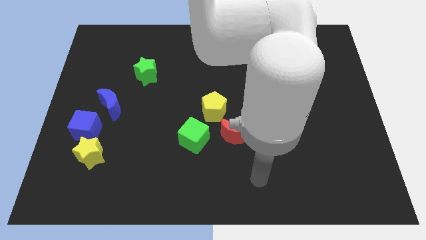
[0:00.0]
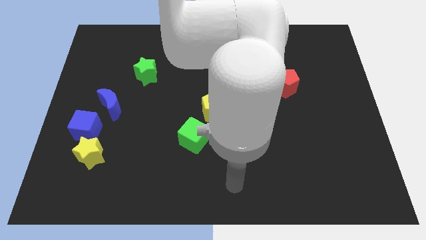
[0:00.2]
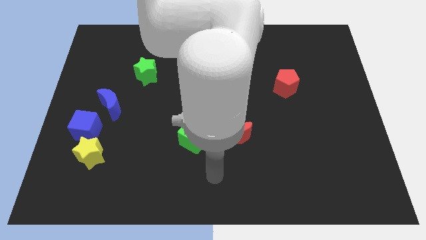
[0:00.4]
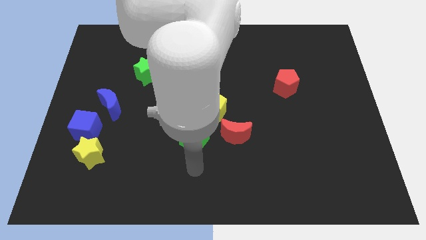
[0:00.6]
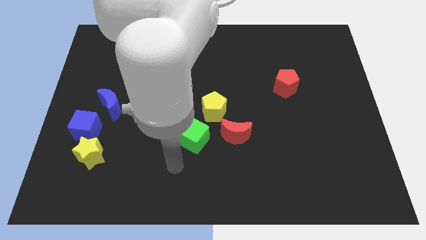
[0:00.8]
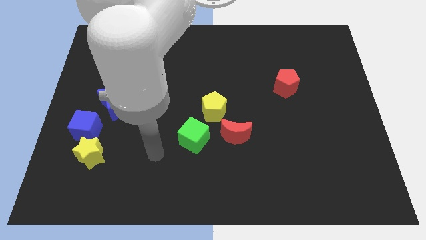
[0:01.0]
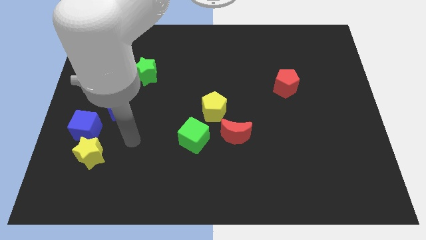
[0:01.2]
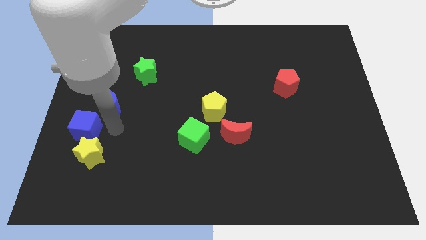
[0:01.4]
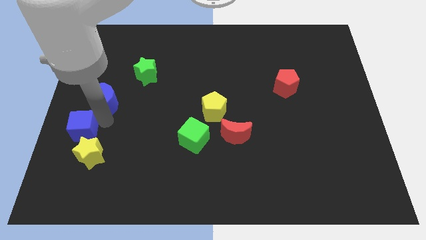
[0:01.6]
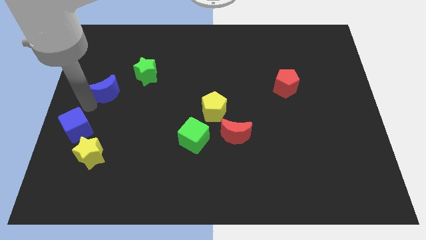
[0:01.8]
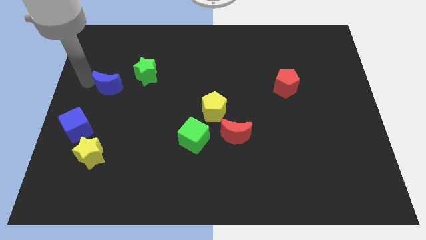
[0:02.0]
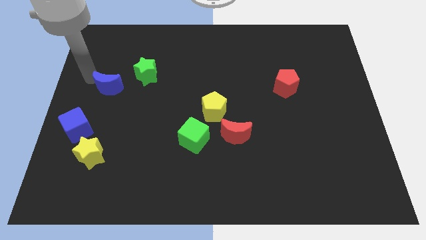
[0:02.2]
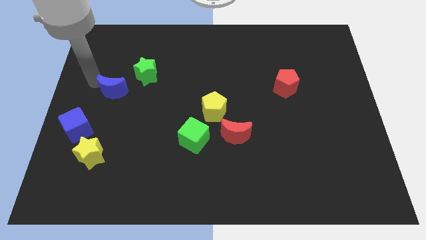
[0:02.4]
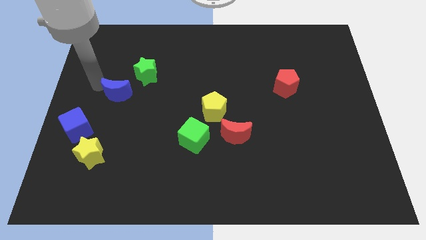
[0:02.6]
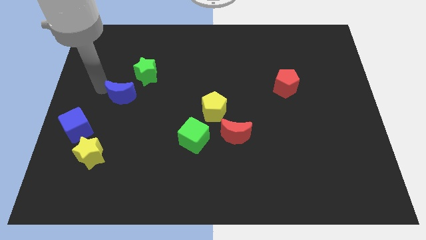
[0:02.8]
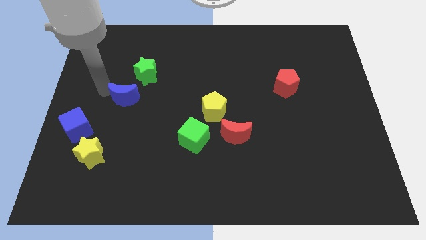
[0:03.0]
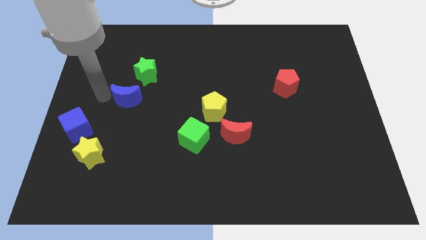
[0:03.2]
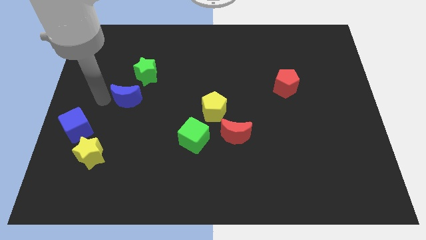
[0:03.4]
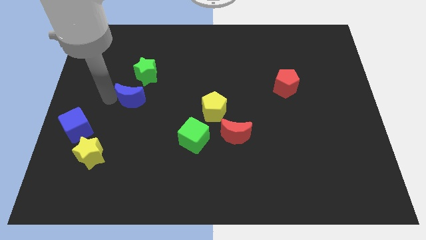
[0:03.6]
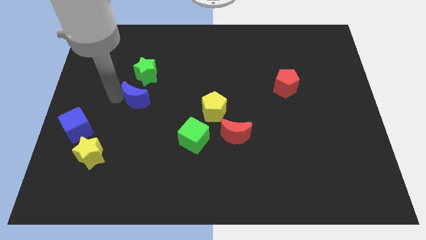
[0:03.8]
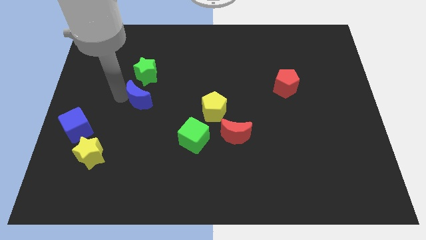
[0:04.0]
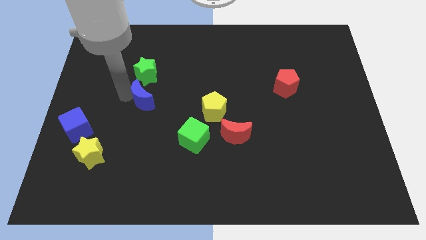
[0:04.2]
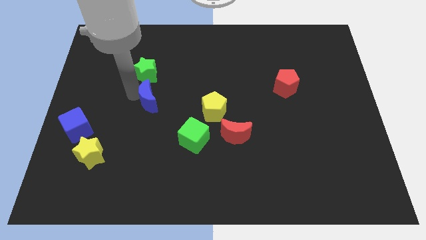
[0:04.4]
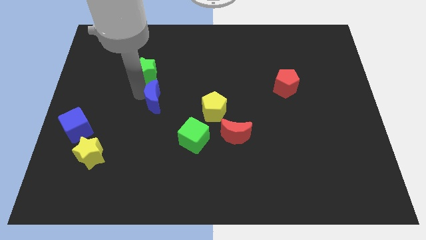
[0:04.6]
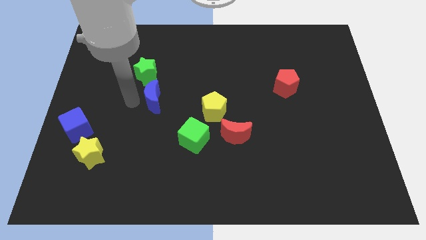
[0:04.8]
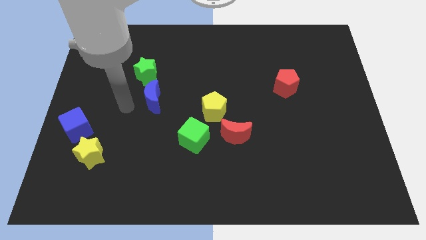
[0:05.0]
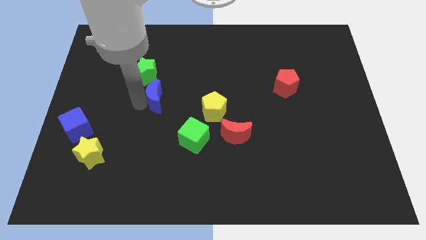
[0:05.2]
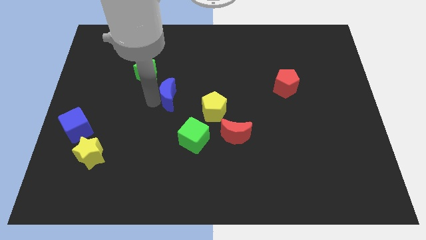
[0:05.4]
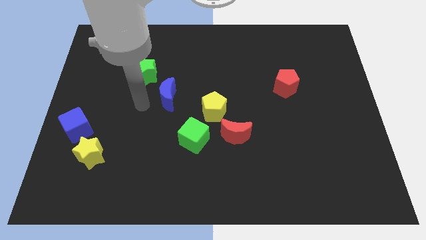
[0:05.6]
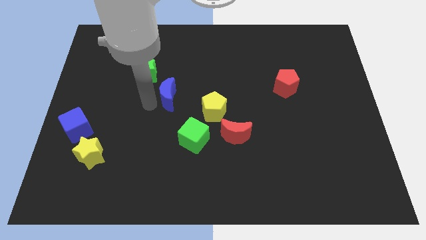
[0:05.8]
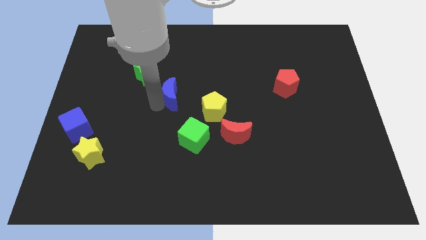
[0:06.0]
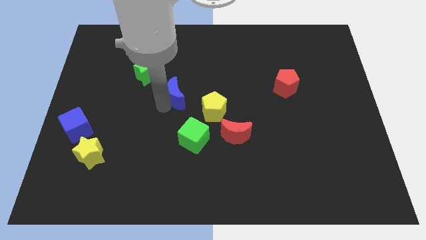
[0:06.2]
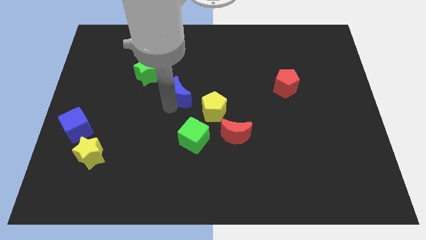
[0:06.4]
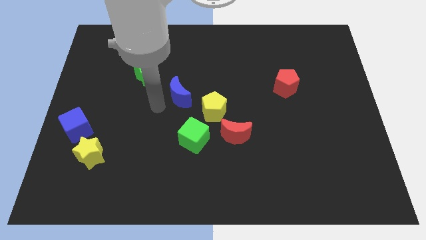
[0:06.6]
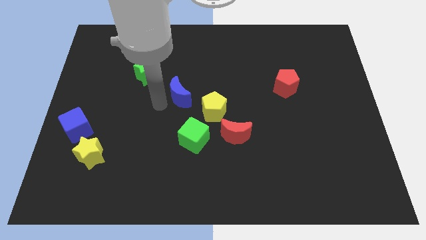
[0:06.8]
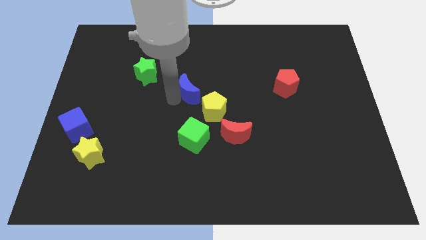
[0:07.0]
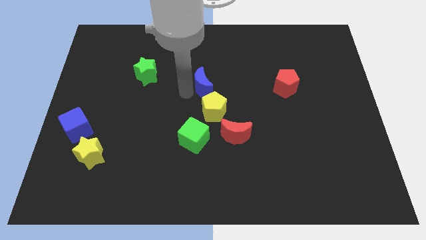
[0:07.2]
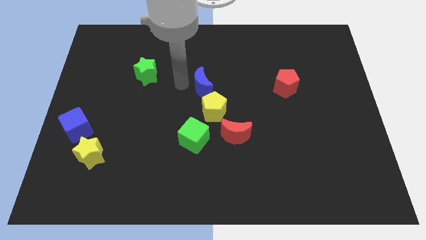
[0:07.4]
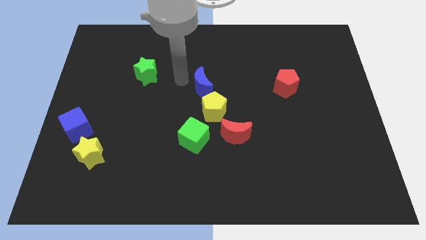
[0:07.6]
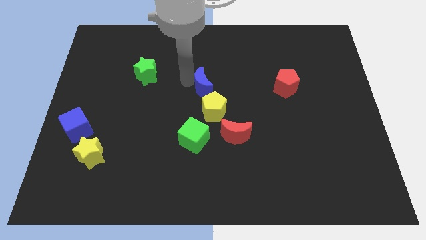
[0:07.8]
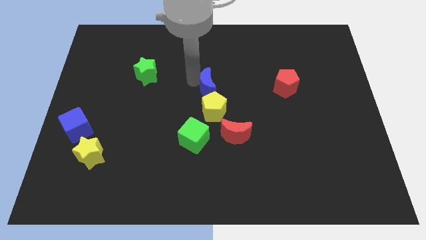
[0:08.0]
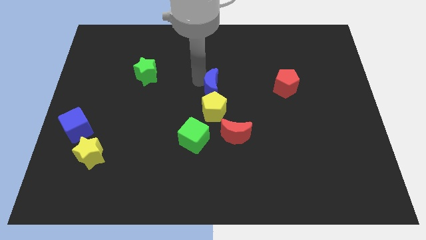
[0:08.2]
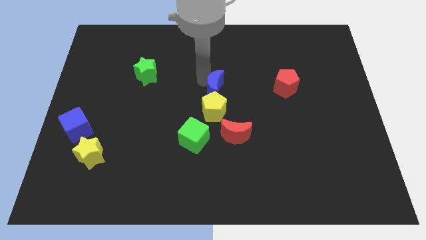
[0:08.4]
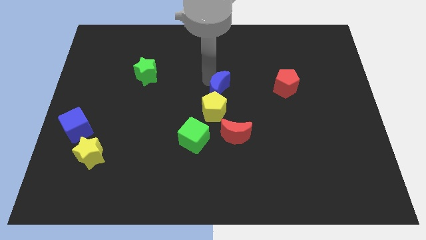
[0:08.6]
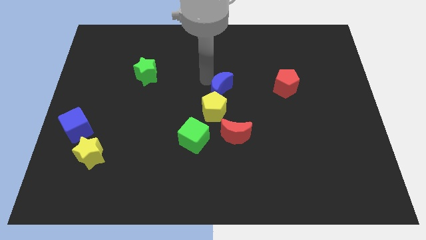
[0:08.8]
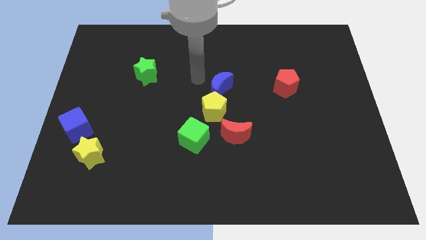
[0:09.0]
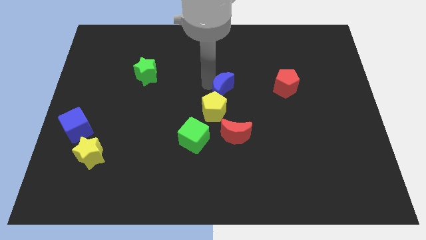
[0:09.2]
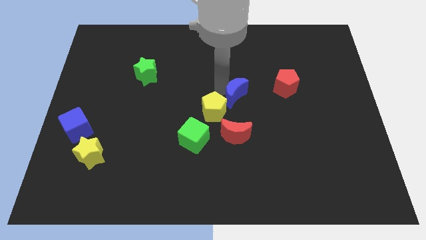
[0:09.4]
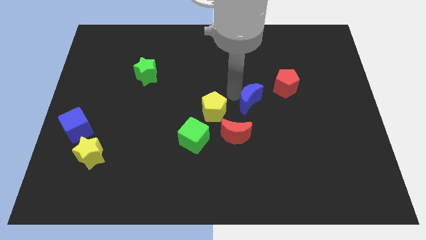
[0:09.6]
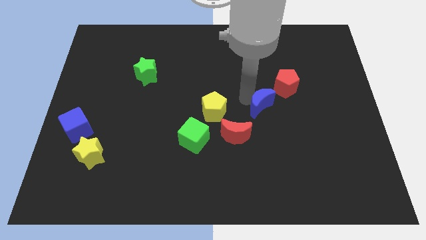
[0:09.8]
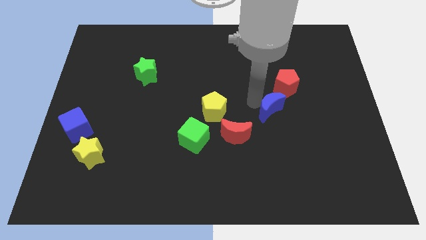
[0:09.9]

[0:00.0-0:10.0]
put the blue moon to the bottom side of the red pentagon

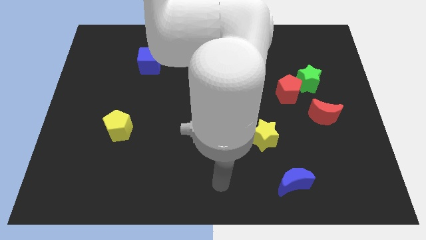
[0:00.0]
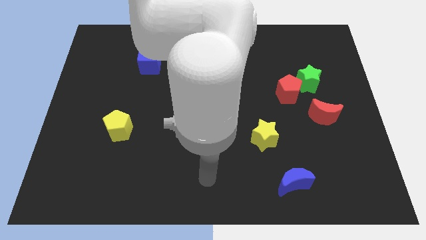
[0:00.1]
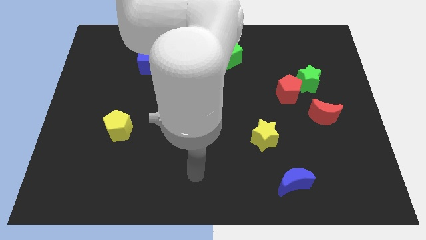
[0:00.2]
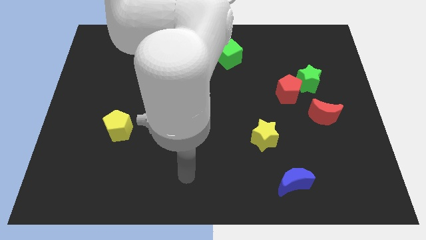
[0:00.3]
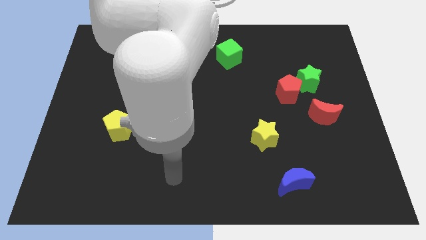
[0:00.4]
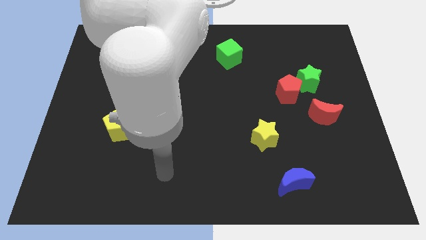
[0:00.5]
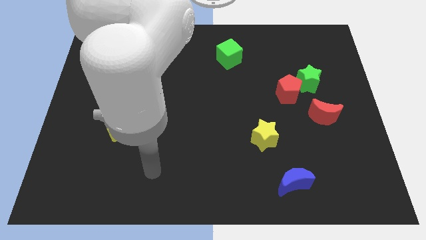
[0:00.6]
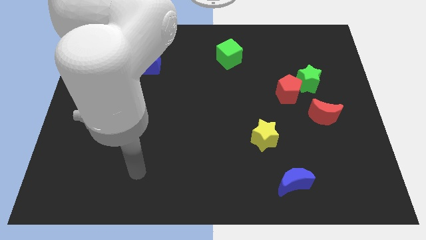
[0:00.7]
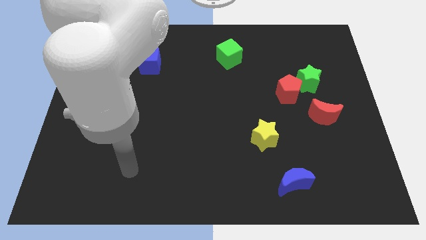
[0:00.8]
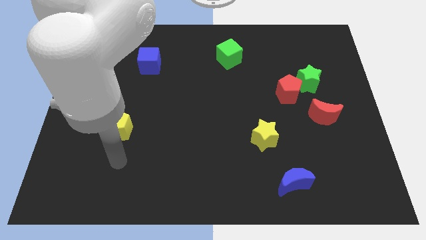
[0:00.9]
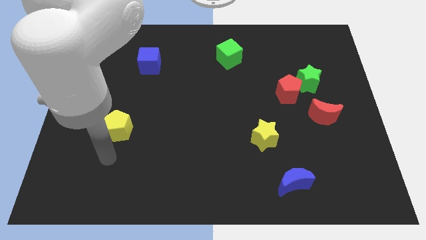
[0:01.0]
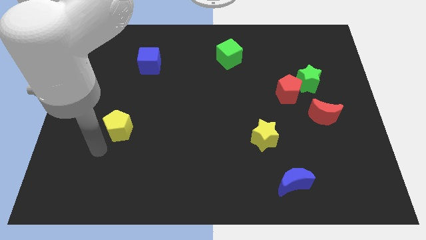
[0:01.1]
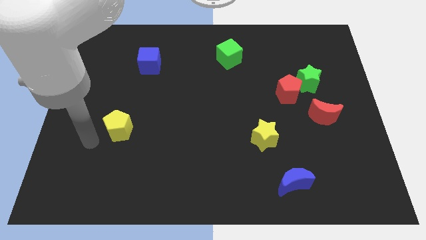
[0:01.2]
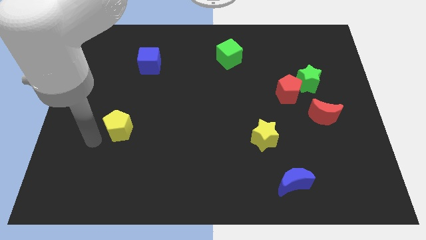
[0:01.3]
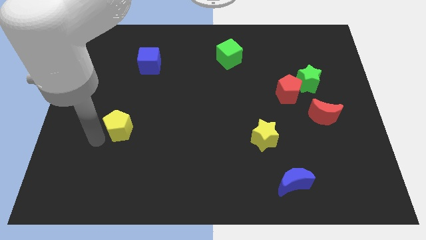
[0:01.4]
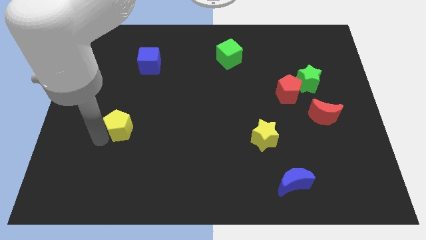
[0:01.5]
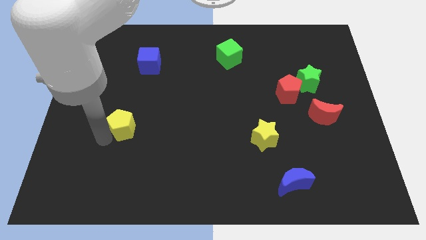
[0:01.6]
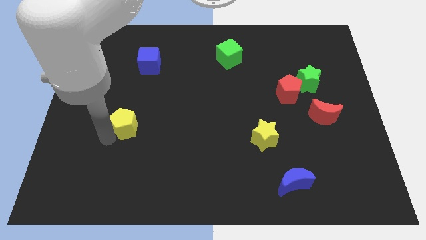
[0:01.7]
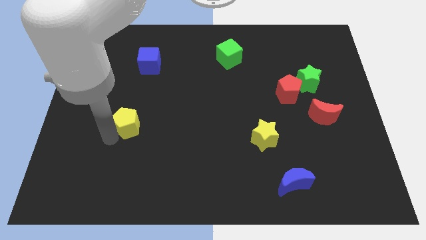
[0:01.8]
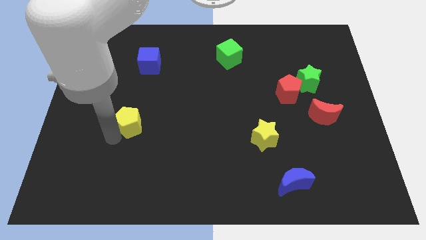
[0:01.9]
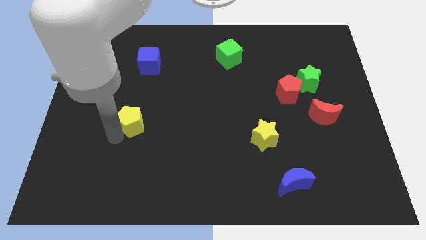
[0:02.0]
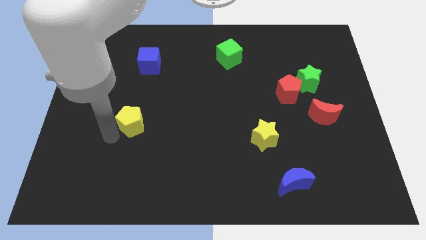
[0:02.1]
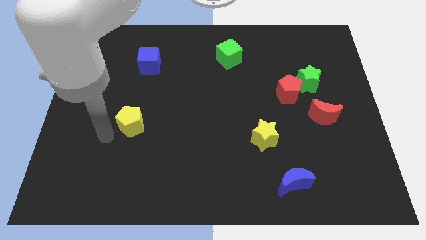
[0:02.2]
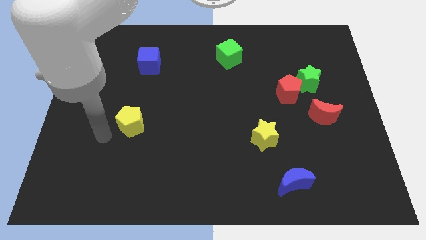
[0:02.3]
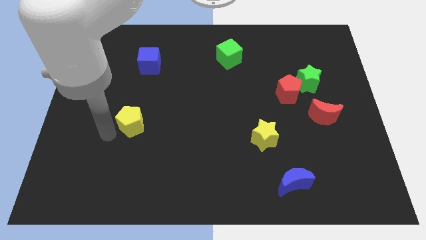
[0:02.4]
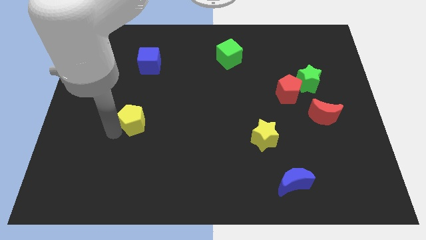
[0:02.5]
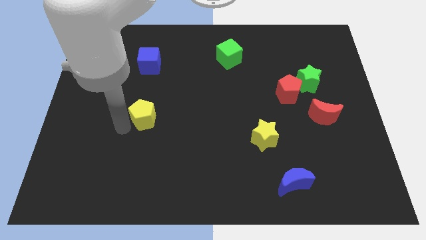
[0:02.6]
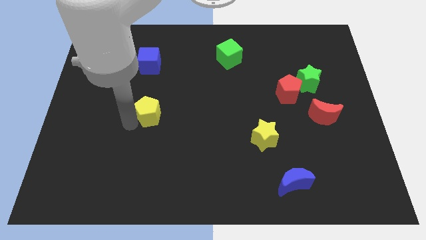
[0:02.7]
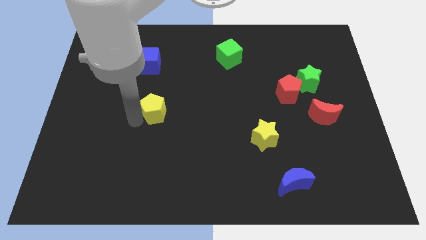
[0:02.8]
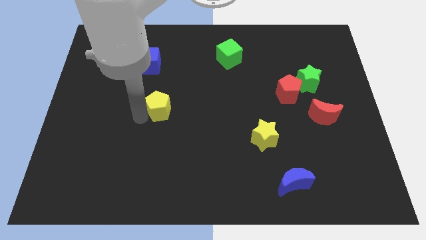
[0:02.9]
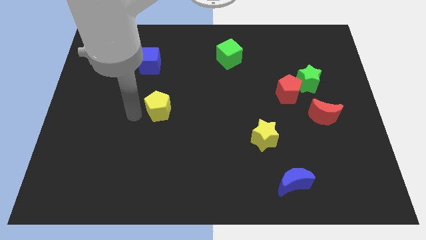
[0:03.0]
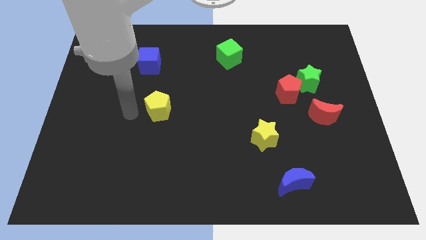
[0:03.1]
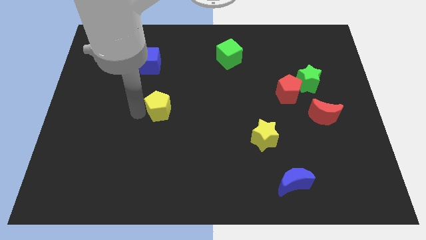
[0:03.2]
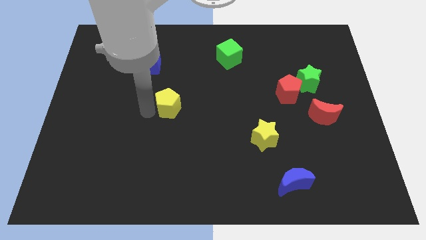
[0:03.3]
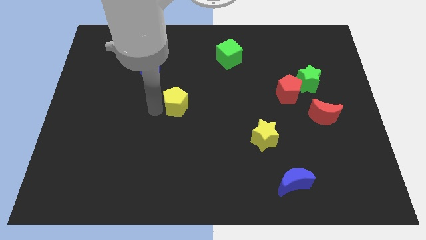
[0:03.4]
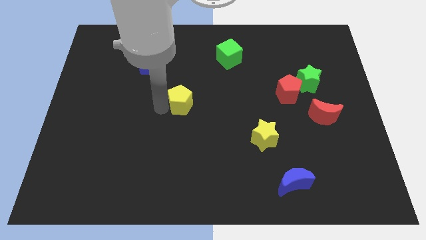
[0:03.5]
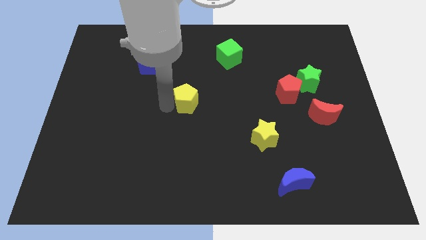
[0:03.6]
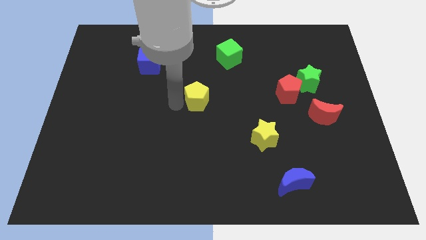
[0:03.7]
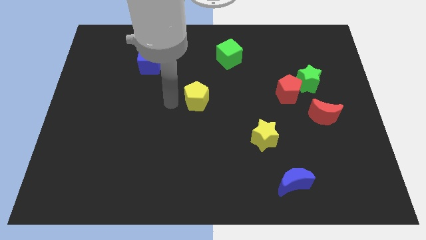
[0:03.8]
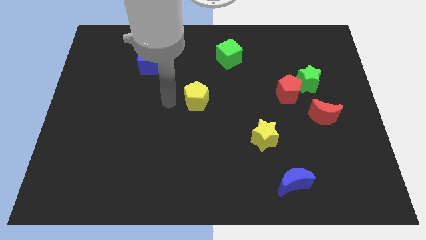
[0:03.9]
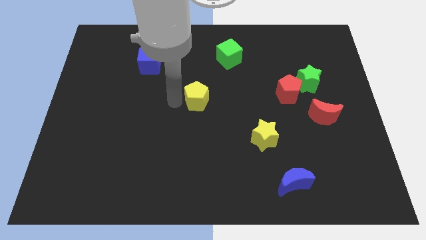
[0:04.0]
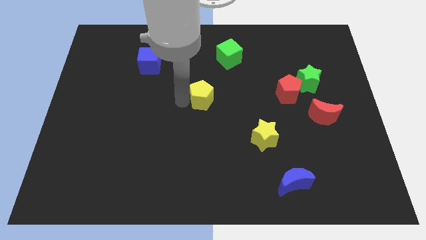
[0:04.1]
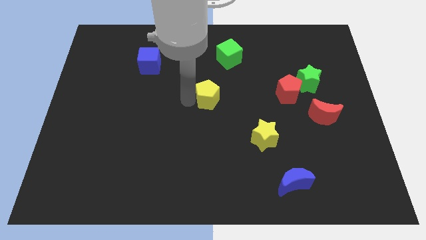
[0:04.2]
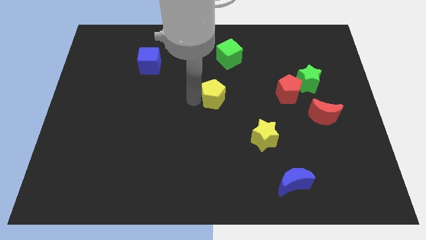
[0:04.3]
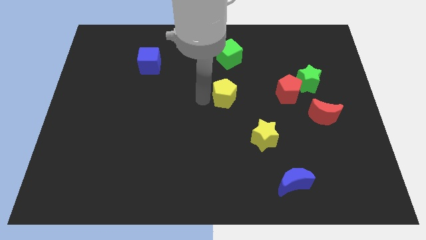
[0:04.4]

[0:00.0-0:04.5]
put the yellow pentagon to the left of the red pentagon
